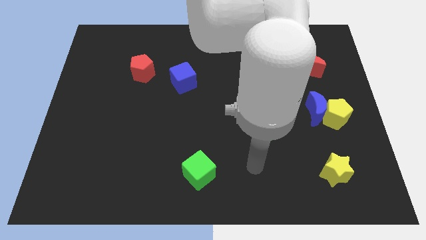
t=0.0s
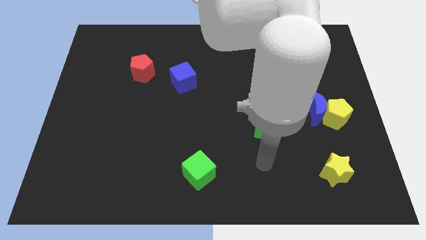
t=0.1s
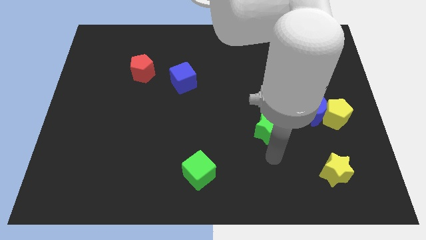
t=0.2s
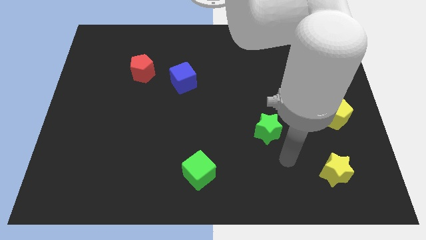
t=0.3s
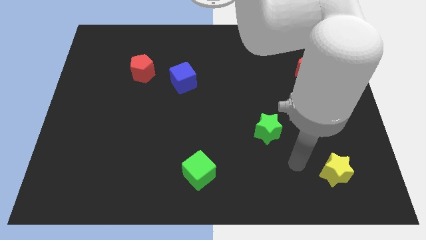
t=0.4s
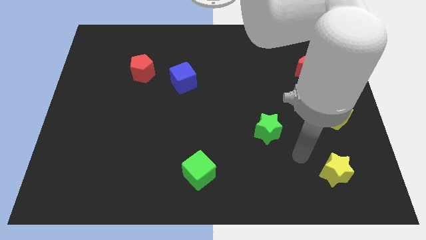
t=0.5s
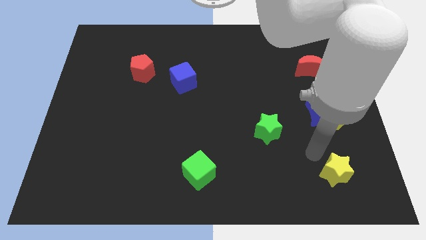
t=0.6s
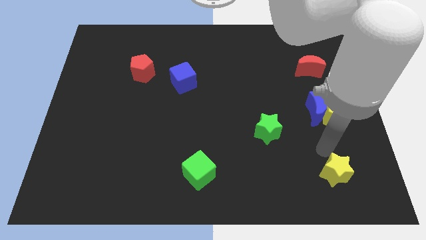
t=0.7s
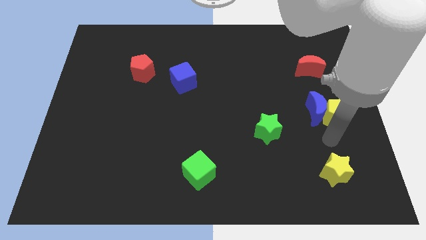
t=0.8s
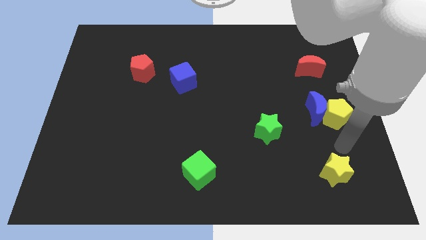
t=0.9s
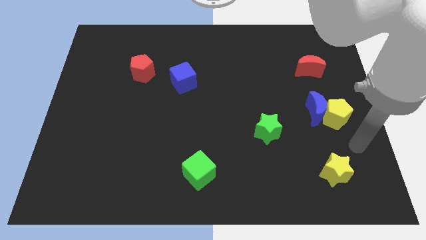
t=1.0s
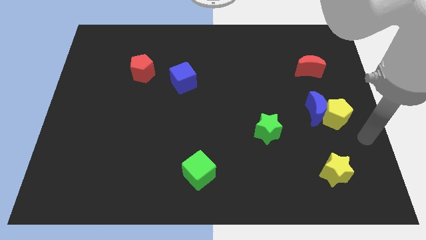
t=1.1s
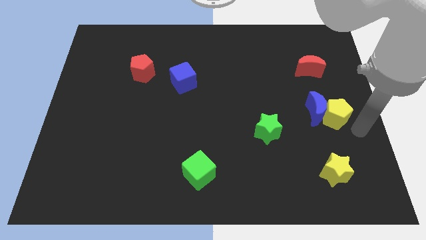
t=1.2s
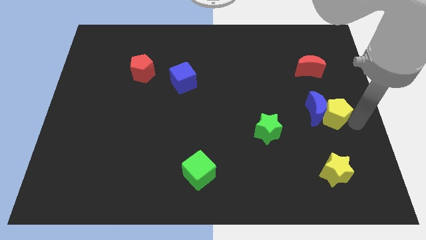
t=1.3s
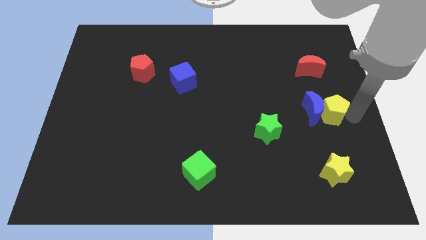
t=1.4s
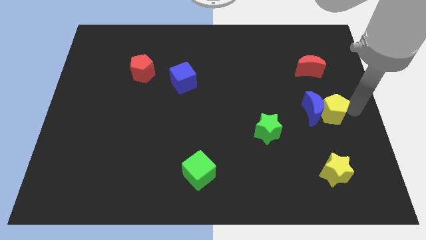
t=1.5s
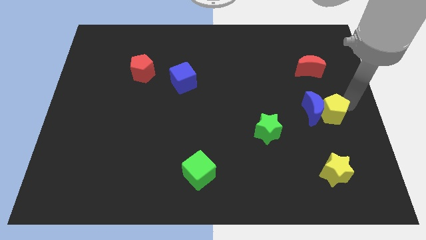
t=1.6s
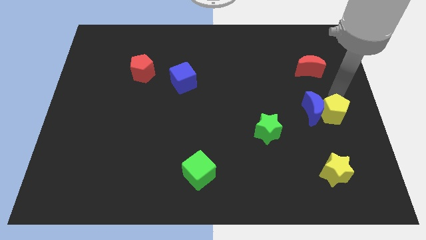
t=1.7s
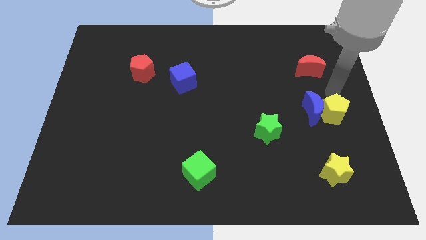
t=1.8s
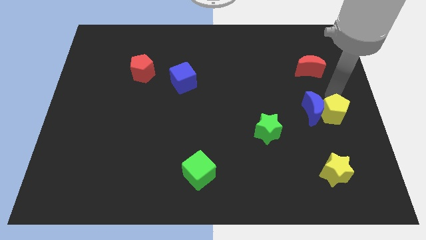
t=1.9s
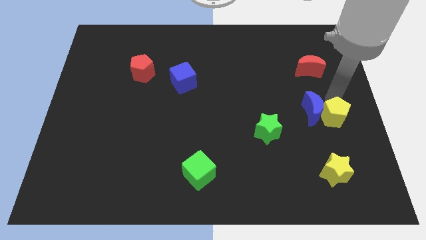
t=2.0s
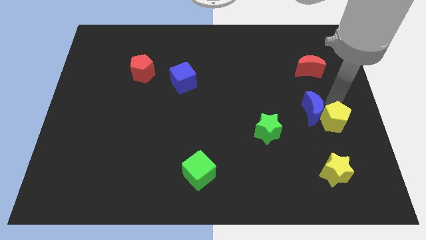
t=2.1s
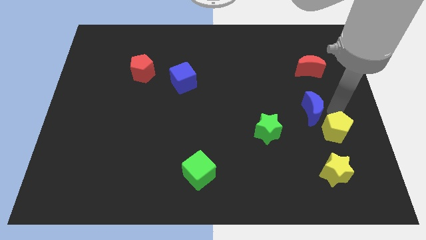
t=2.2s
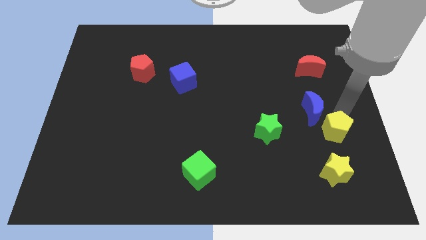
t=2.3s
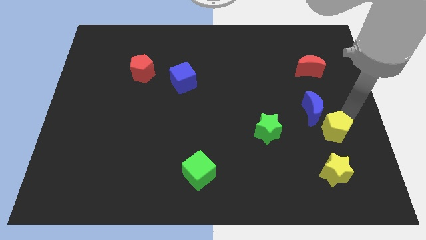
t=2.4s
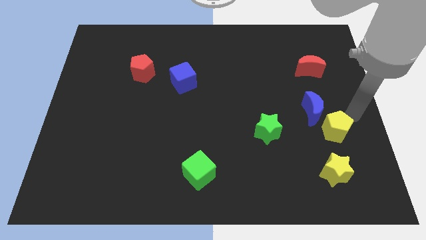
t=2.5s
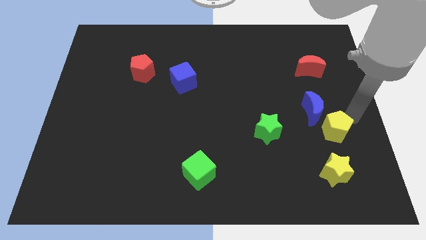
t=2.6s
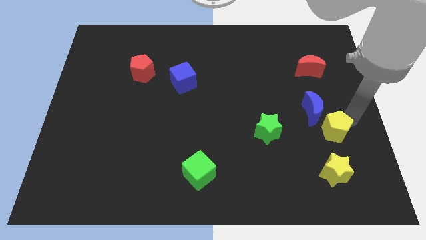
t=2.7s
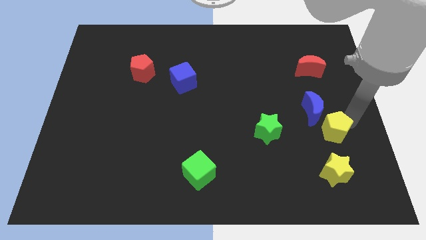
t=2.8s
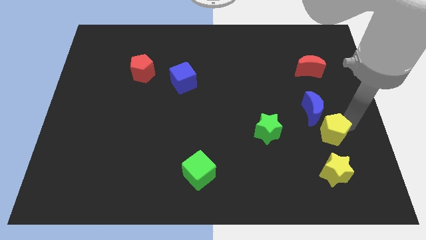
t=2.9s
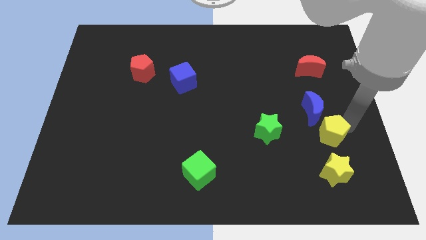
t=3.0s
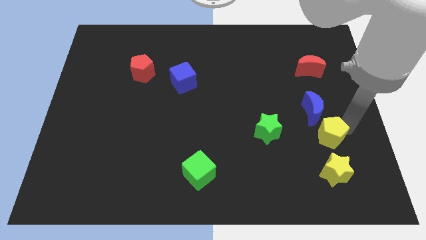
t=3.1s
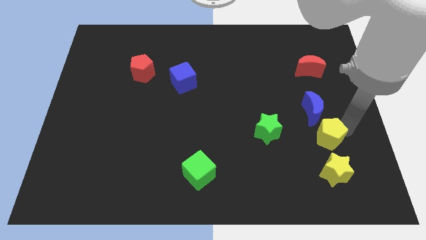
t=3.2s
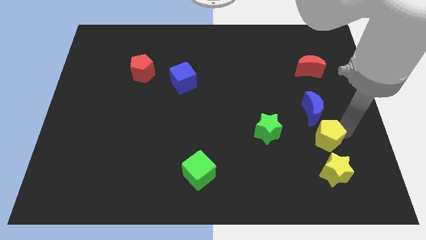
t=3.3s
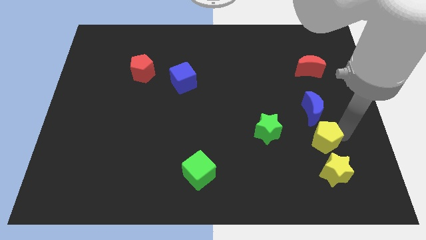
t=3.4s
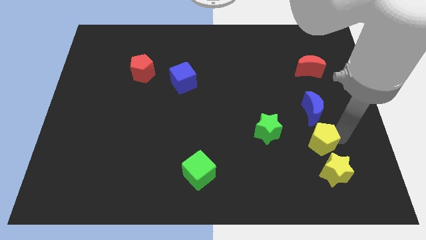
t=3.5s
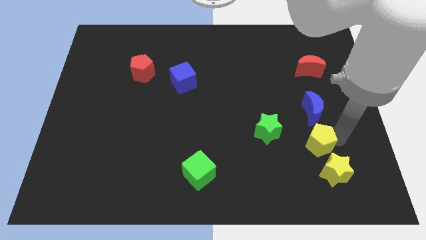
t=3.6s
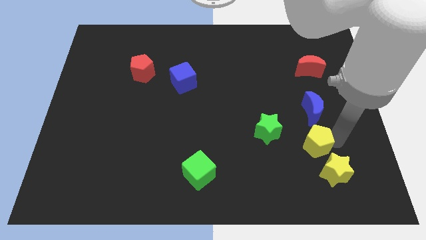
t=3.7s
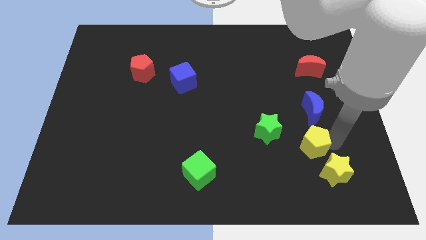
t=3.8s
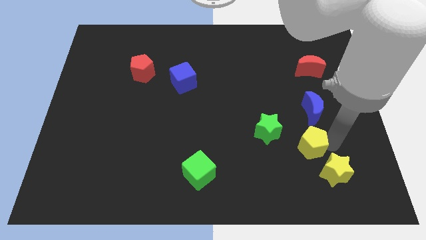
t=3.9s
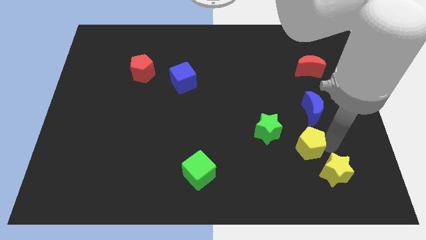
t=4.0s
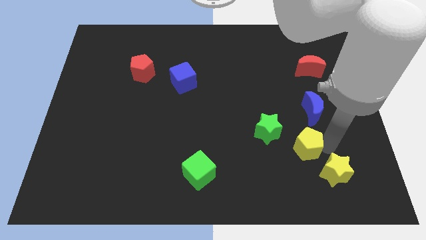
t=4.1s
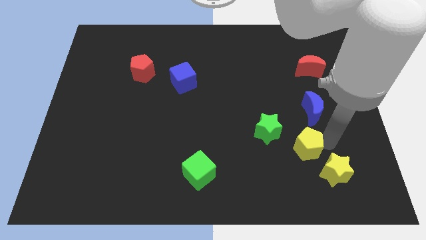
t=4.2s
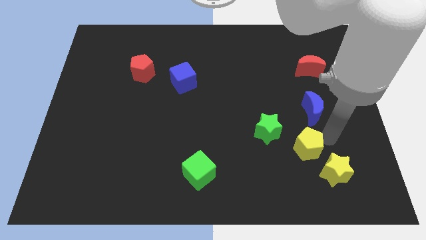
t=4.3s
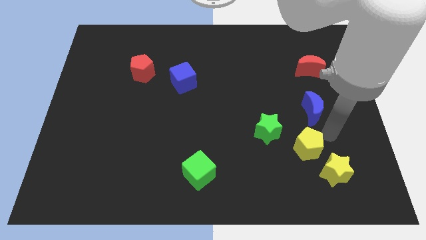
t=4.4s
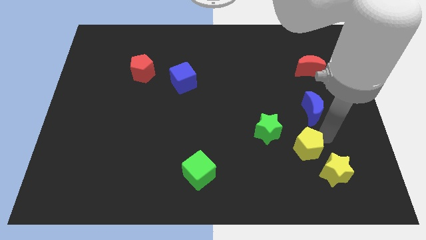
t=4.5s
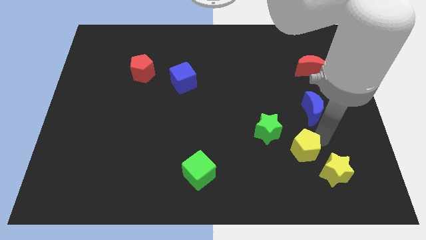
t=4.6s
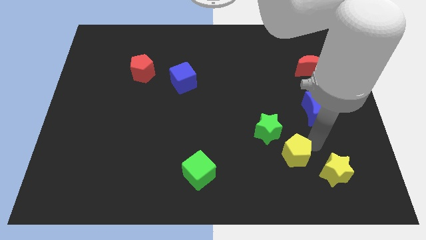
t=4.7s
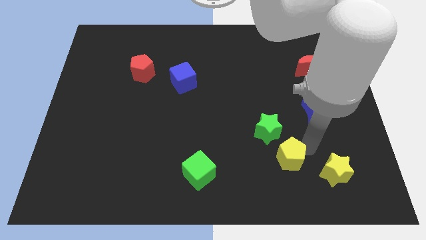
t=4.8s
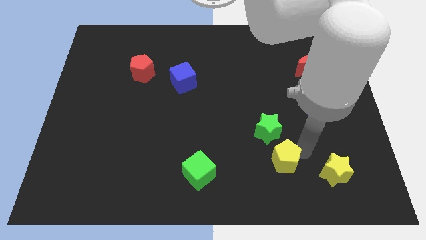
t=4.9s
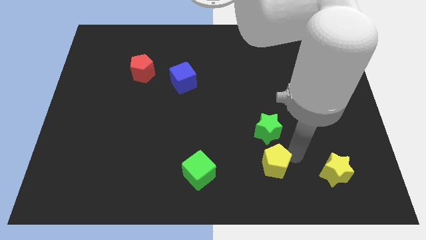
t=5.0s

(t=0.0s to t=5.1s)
move the yellow pentagon right of the green cube
